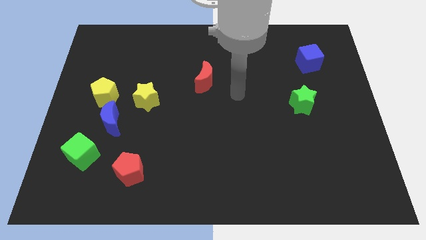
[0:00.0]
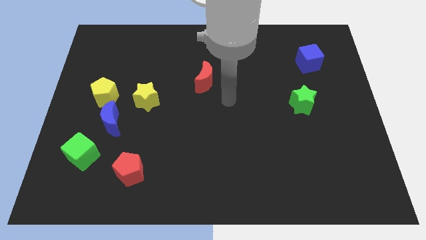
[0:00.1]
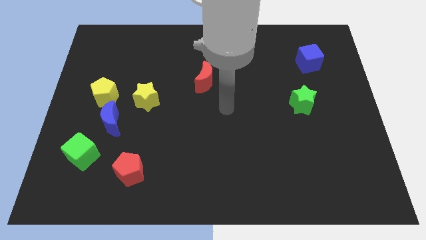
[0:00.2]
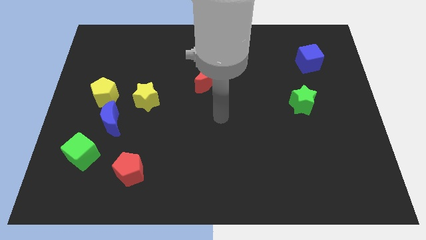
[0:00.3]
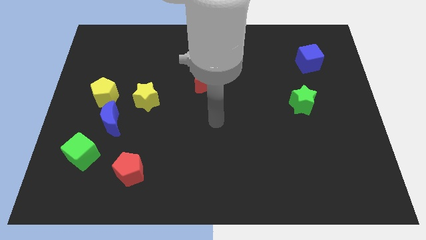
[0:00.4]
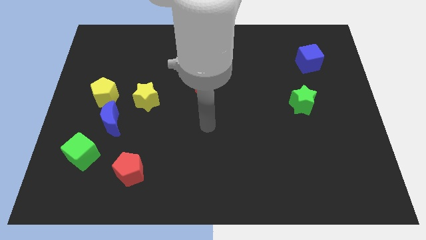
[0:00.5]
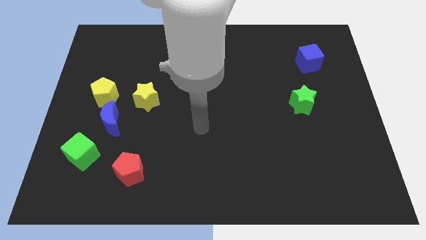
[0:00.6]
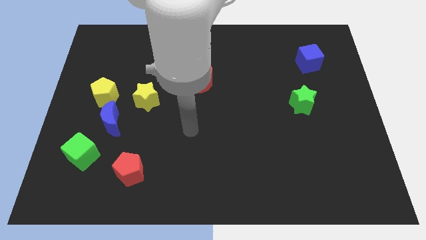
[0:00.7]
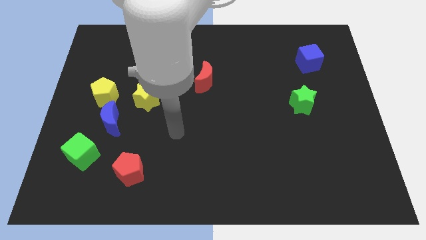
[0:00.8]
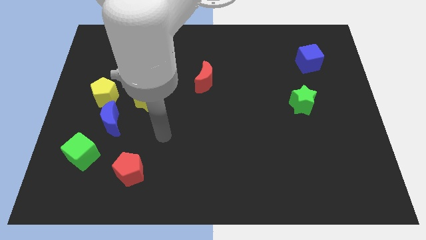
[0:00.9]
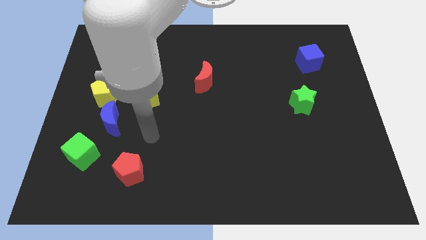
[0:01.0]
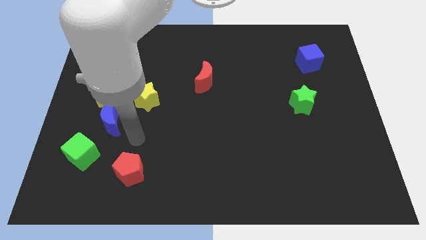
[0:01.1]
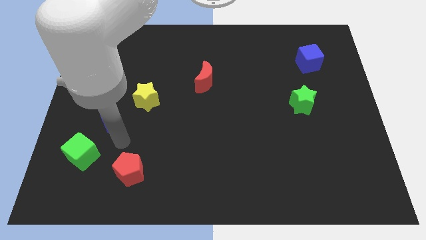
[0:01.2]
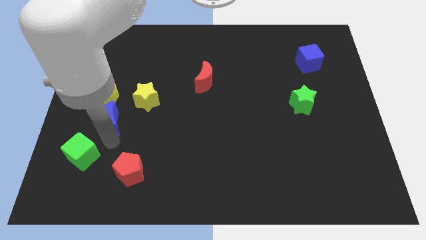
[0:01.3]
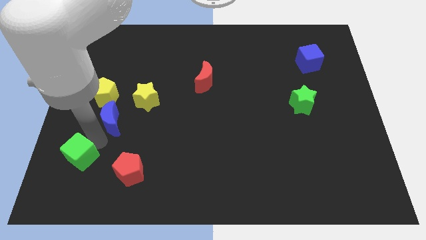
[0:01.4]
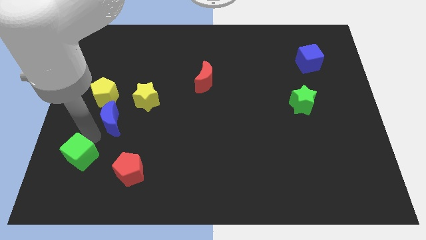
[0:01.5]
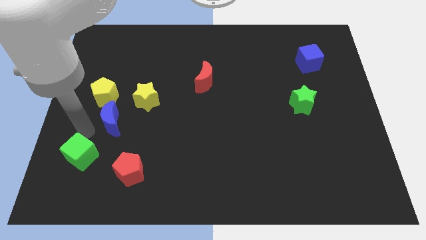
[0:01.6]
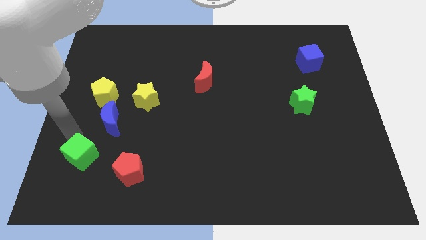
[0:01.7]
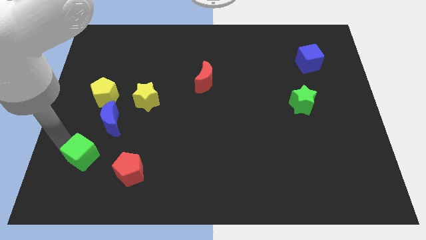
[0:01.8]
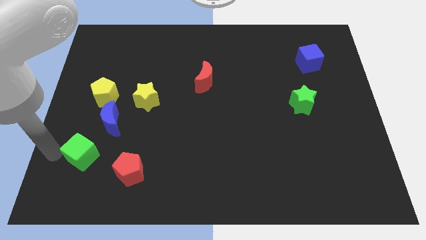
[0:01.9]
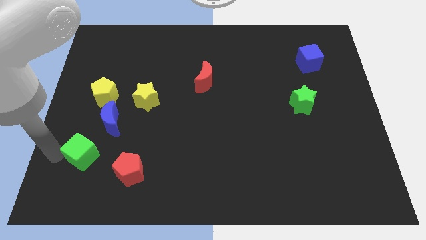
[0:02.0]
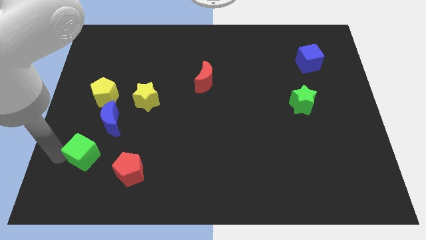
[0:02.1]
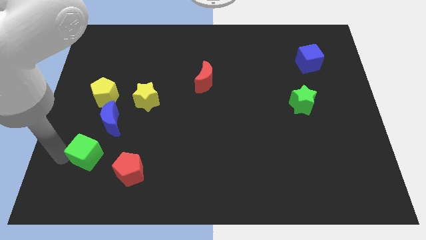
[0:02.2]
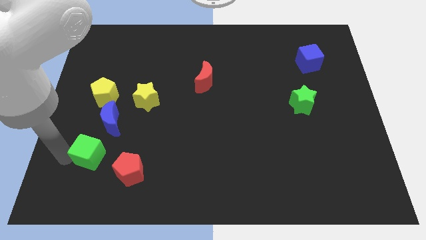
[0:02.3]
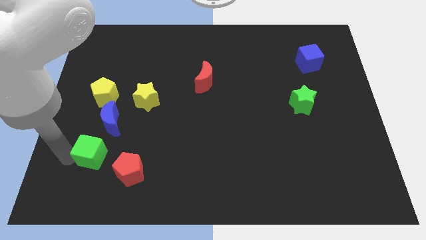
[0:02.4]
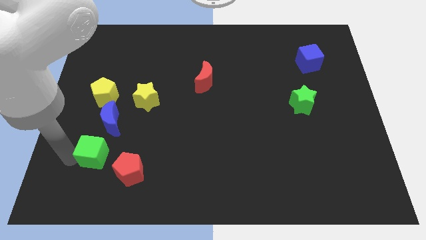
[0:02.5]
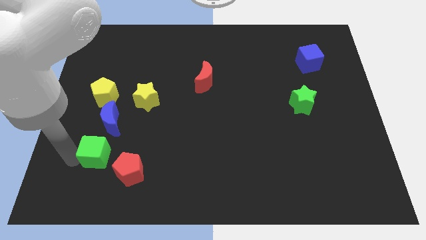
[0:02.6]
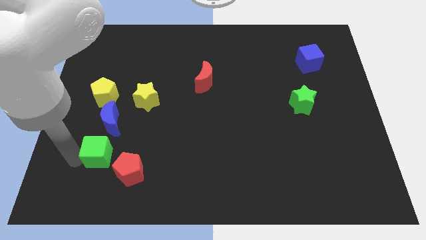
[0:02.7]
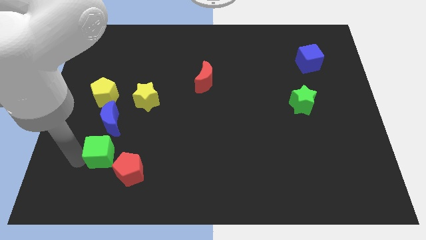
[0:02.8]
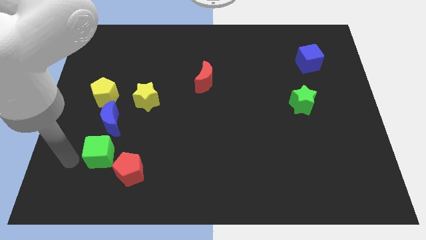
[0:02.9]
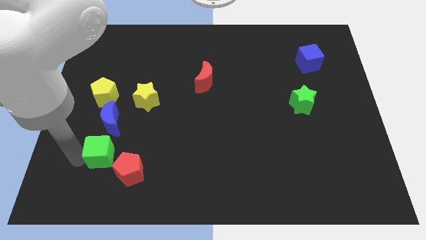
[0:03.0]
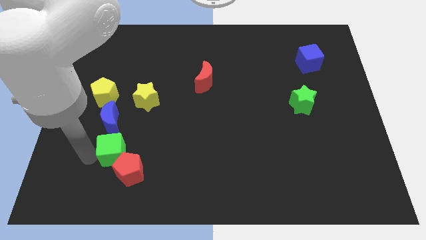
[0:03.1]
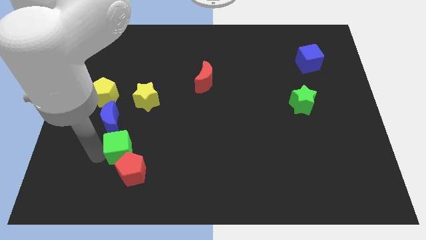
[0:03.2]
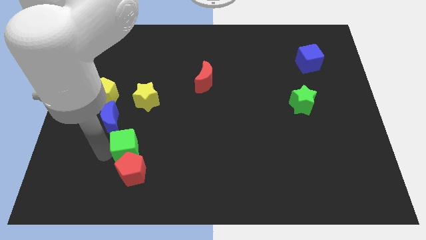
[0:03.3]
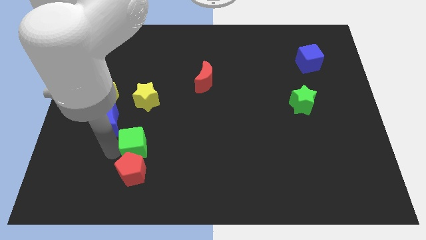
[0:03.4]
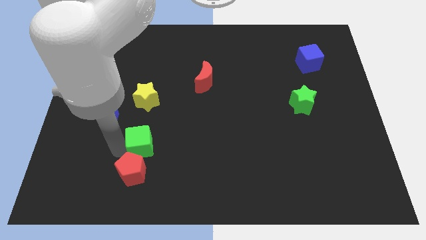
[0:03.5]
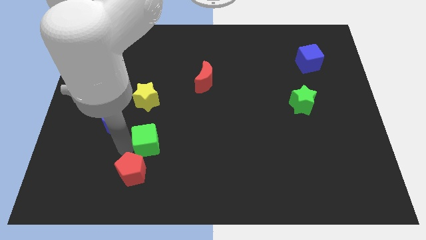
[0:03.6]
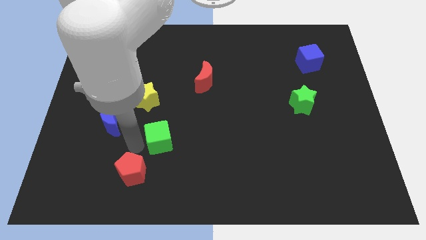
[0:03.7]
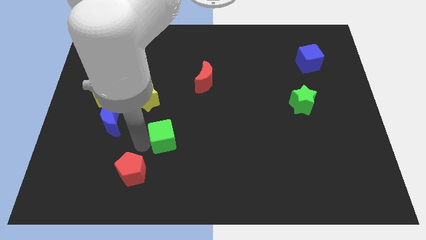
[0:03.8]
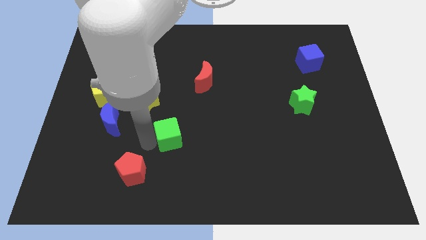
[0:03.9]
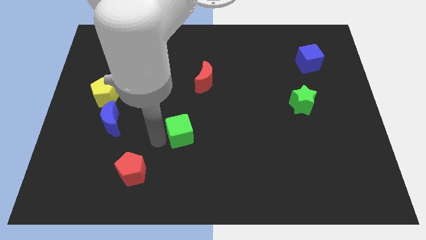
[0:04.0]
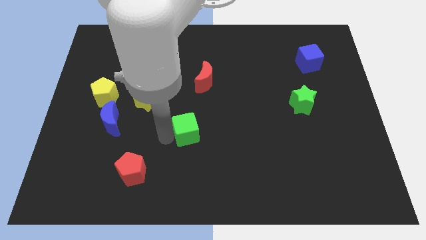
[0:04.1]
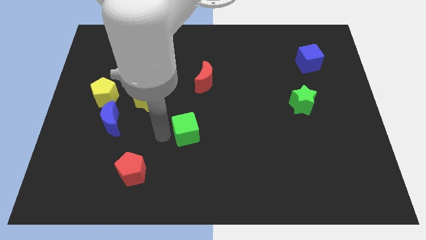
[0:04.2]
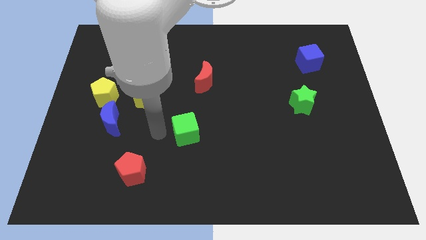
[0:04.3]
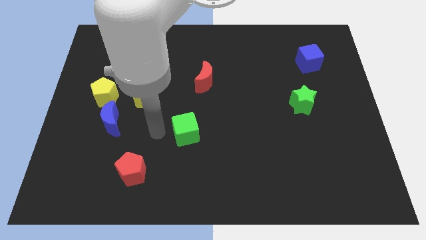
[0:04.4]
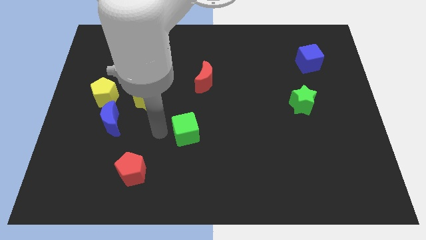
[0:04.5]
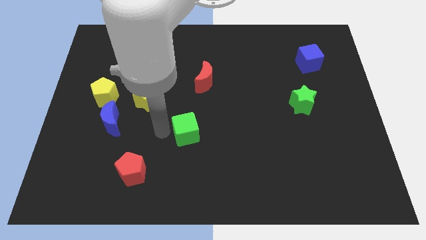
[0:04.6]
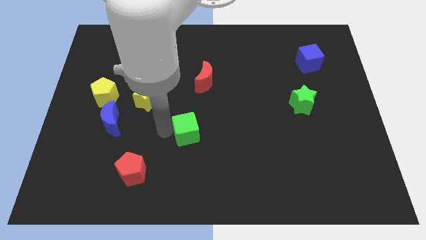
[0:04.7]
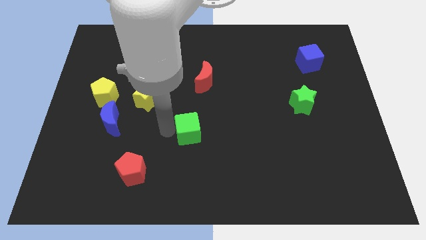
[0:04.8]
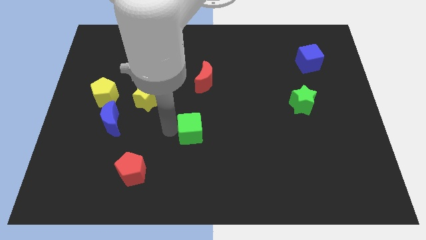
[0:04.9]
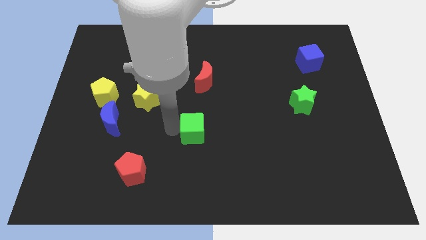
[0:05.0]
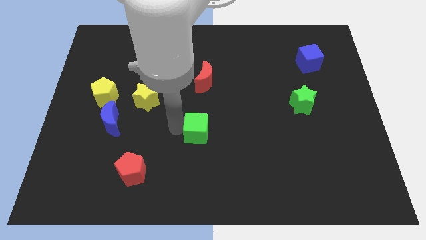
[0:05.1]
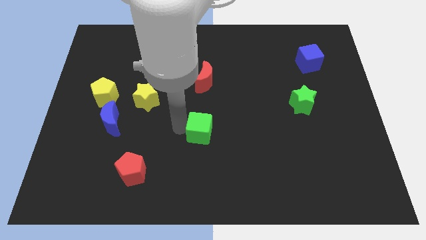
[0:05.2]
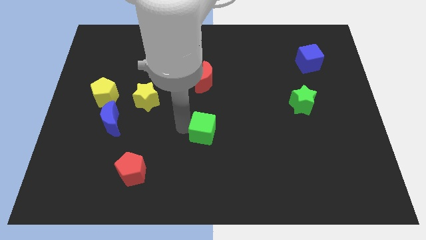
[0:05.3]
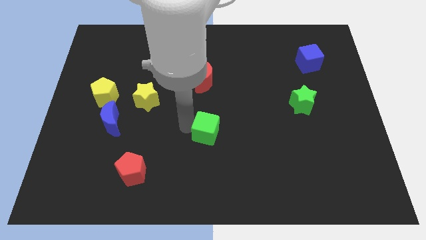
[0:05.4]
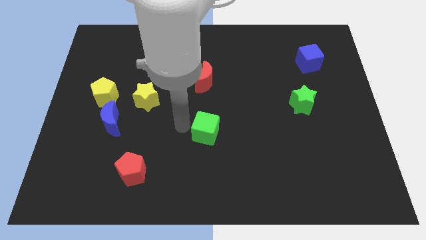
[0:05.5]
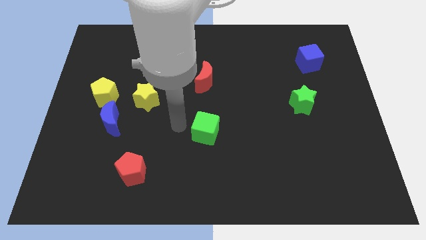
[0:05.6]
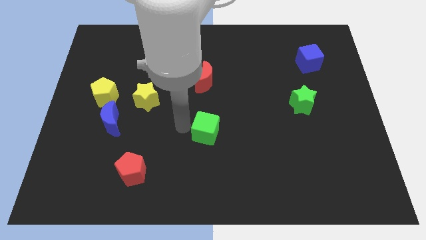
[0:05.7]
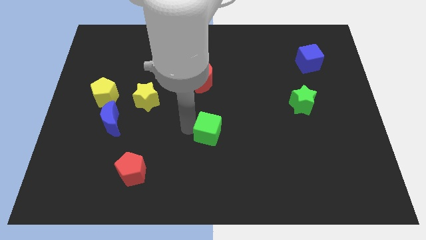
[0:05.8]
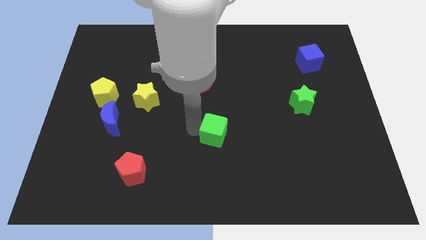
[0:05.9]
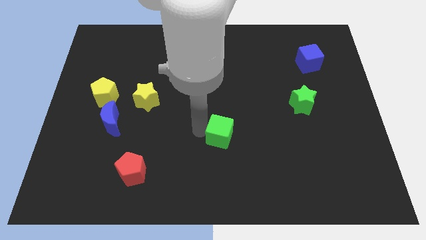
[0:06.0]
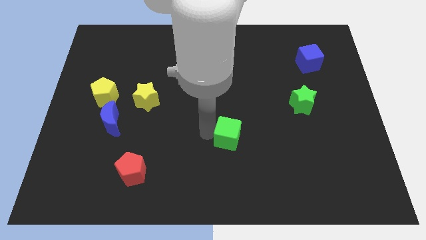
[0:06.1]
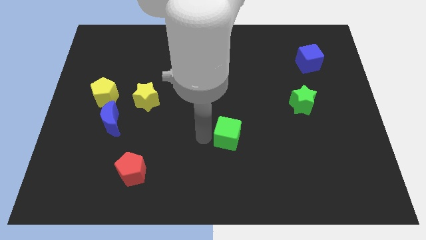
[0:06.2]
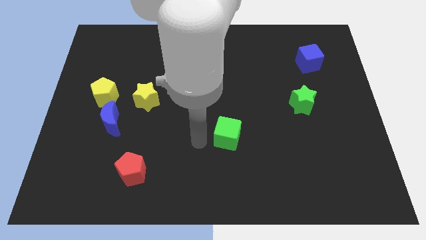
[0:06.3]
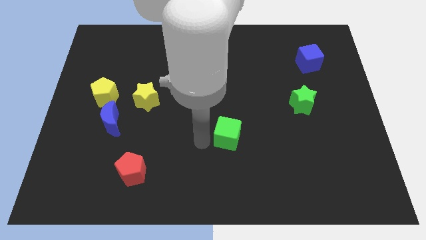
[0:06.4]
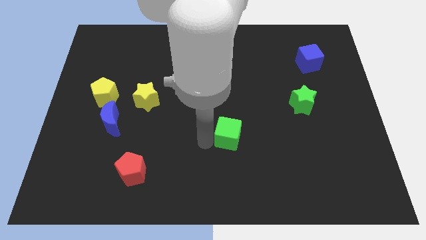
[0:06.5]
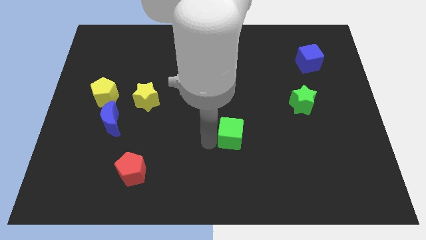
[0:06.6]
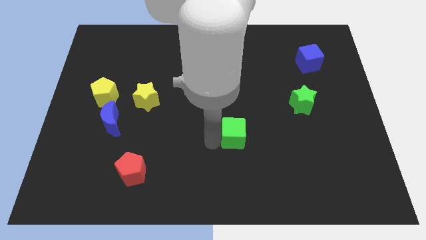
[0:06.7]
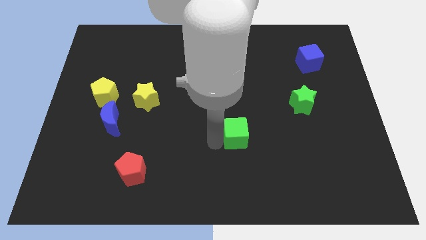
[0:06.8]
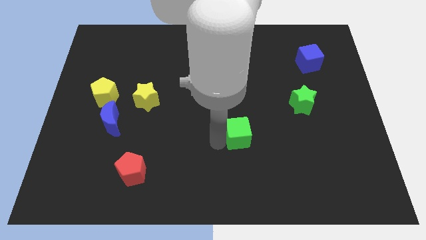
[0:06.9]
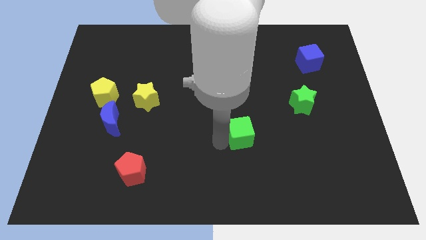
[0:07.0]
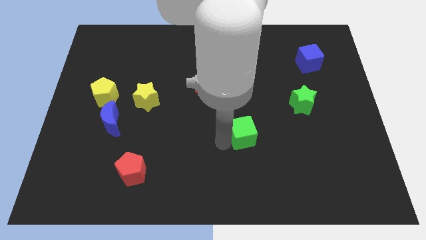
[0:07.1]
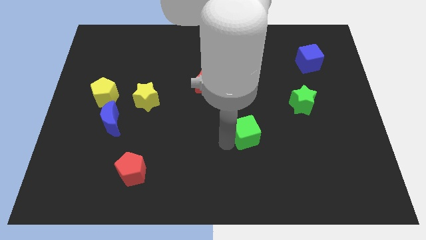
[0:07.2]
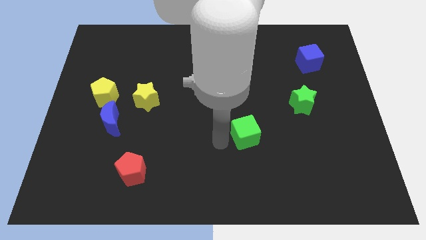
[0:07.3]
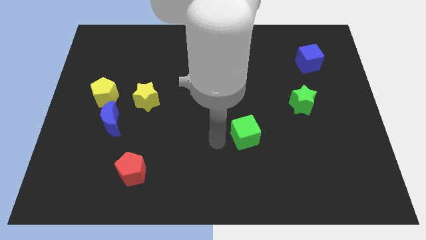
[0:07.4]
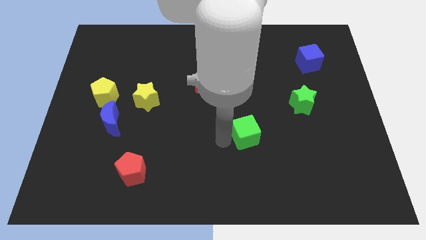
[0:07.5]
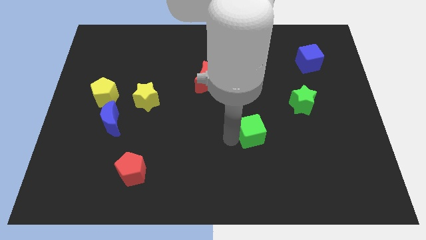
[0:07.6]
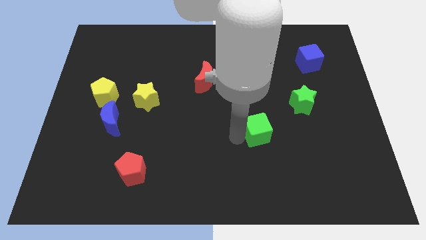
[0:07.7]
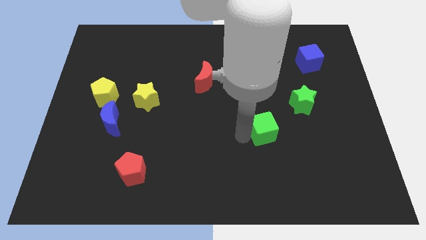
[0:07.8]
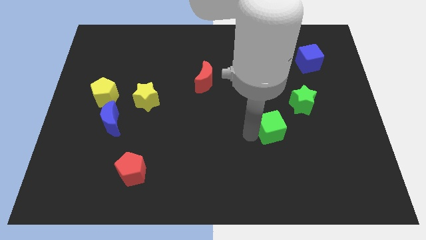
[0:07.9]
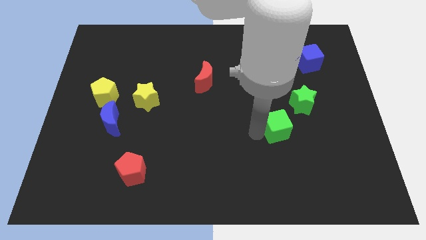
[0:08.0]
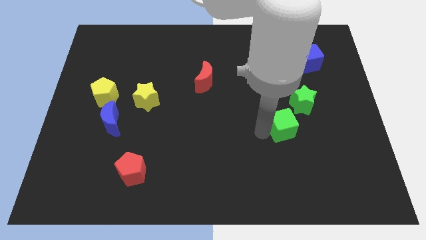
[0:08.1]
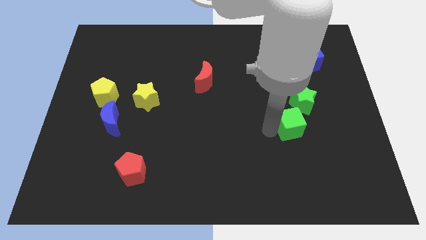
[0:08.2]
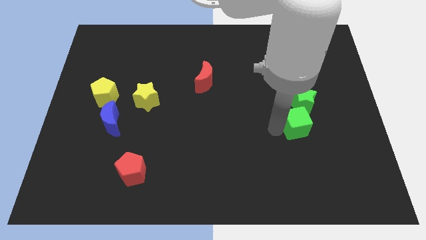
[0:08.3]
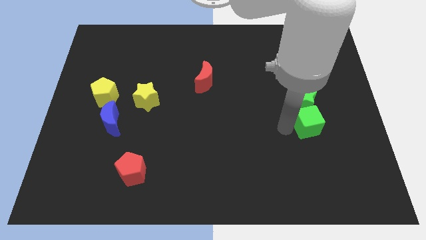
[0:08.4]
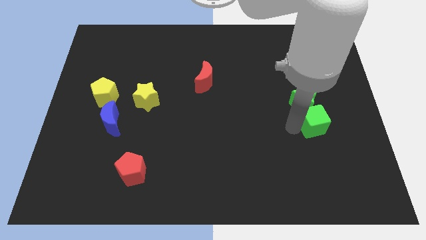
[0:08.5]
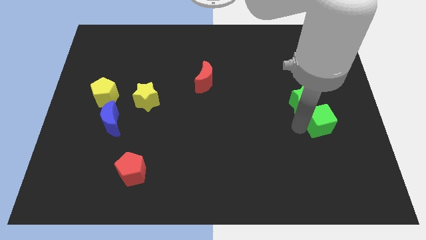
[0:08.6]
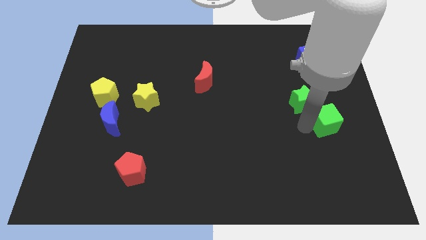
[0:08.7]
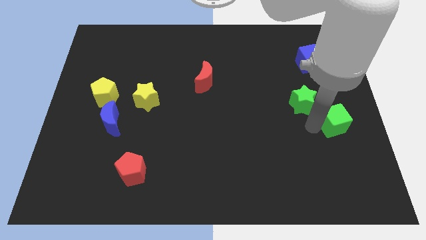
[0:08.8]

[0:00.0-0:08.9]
slide the green cube to the right side of the board
